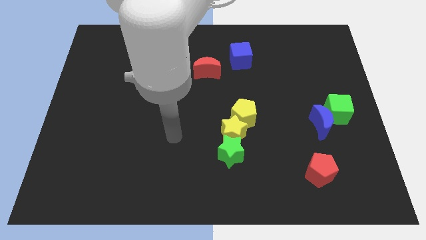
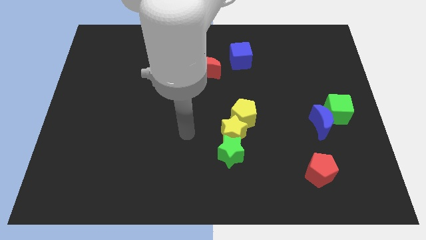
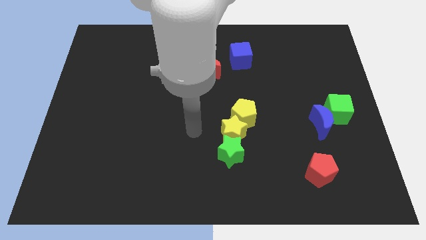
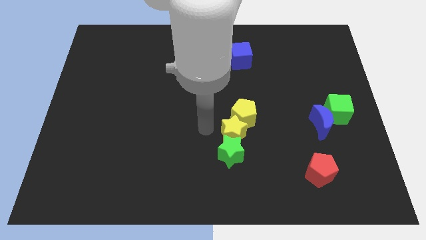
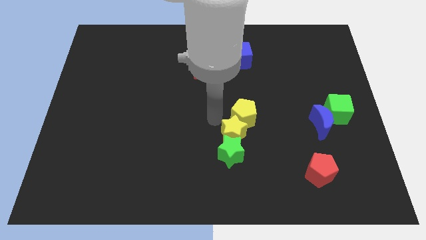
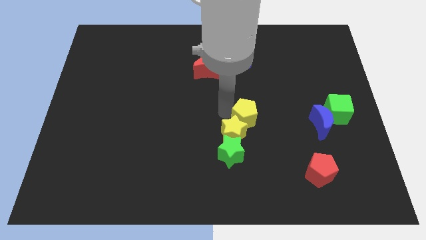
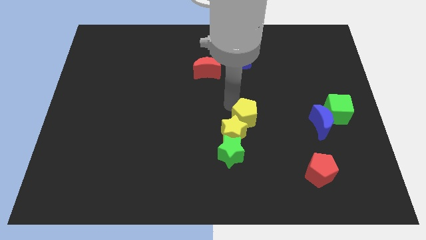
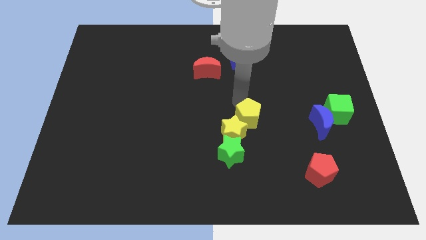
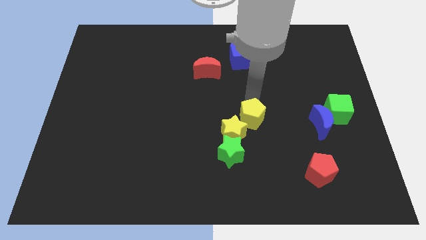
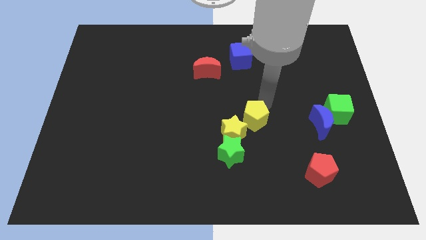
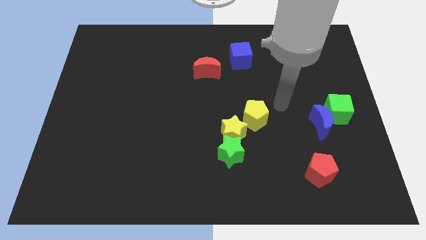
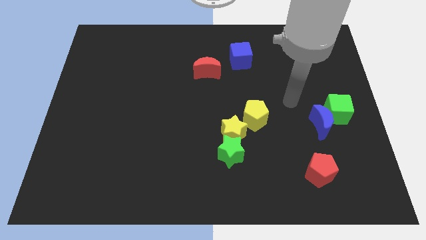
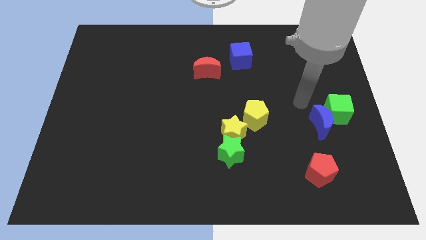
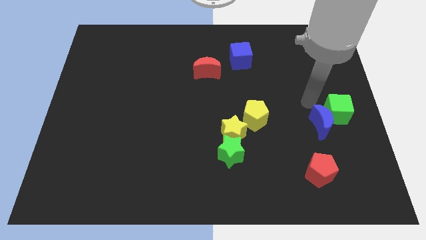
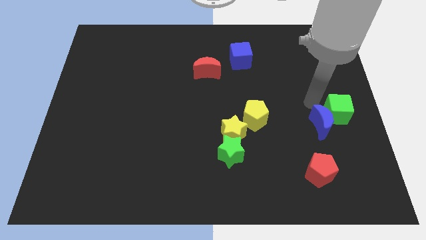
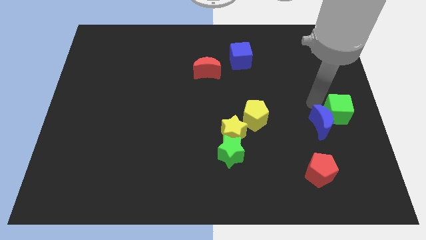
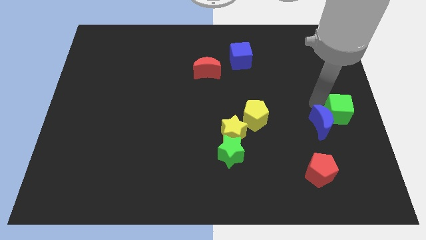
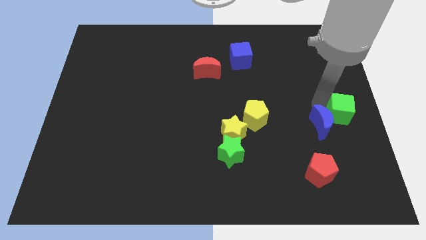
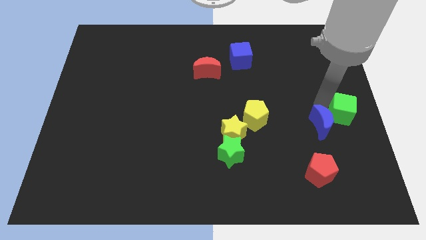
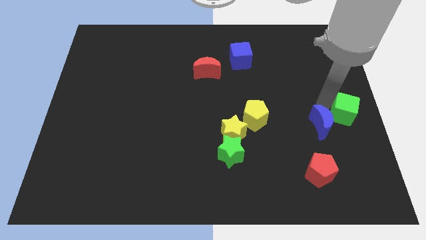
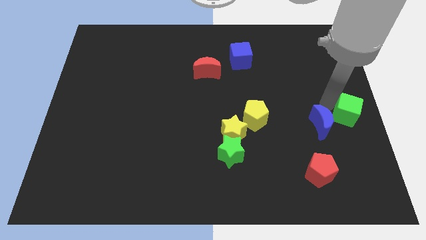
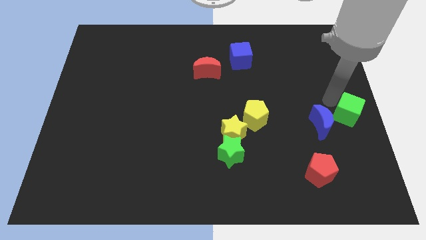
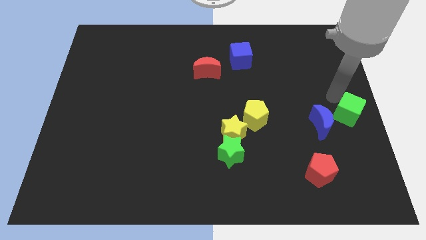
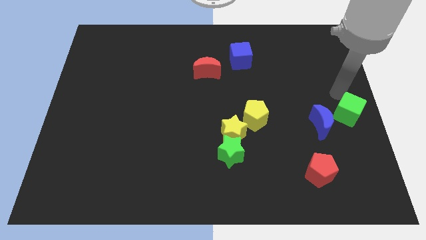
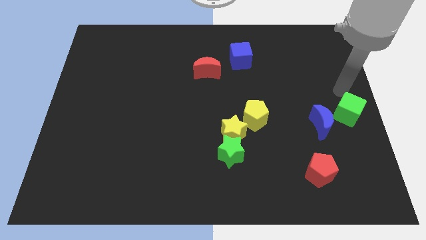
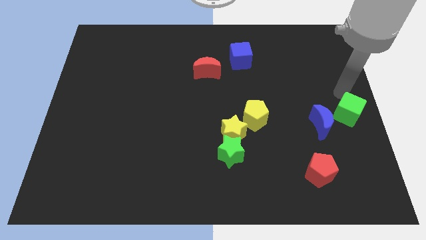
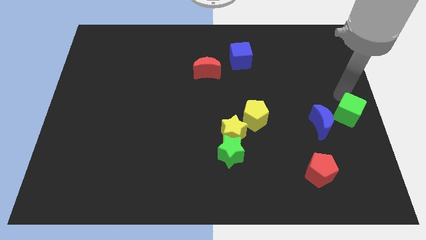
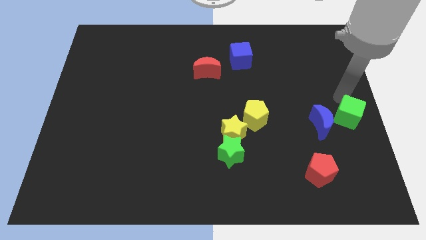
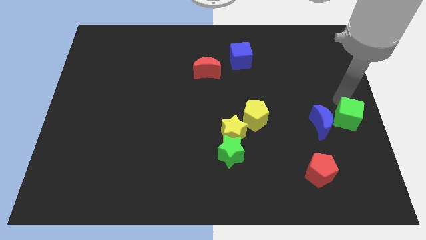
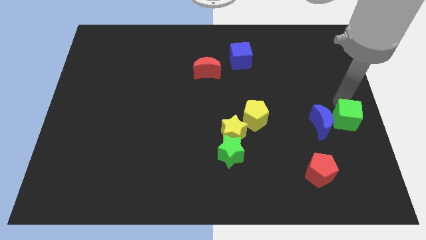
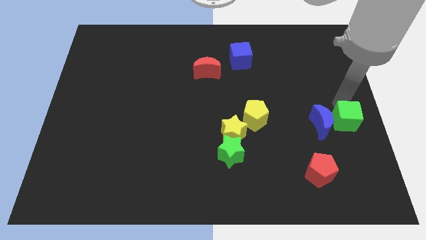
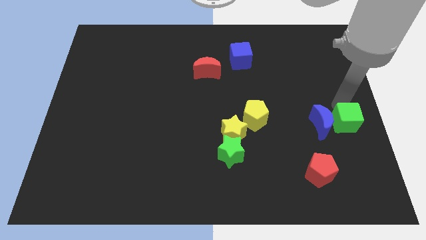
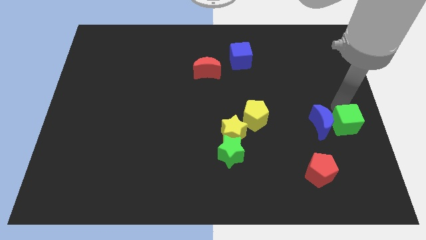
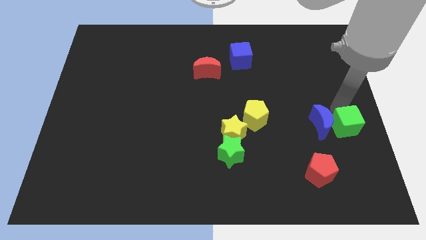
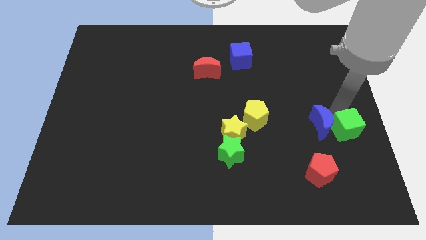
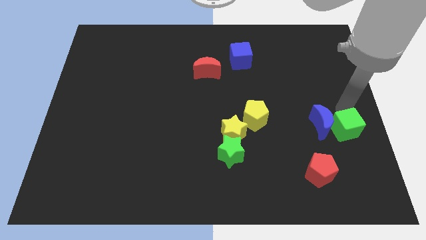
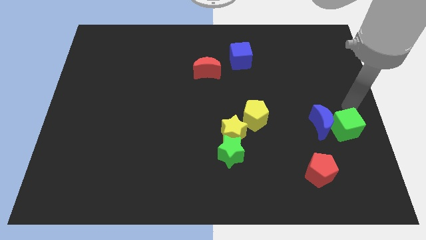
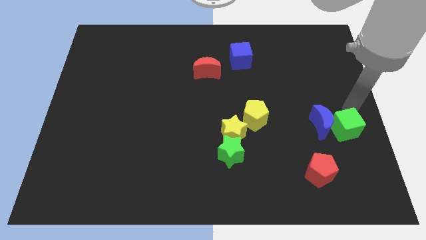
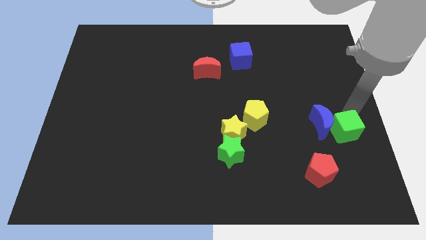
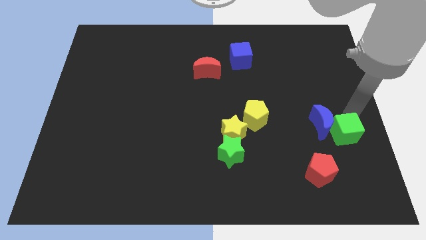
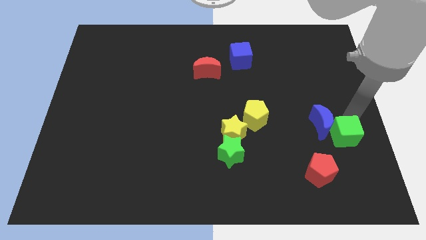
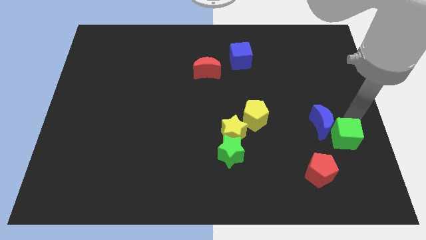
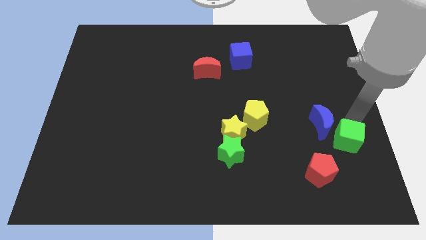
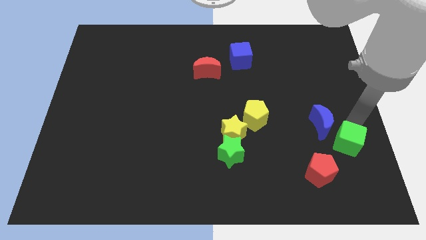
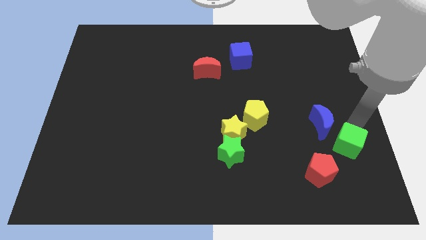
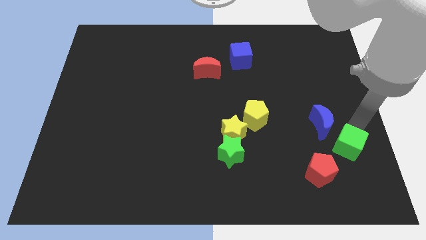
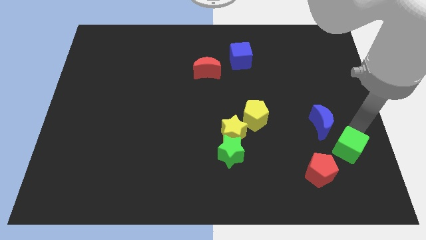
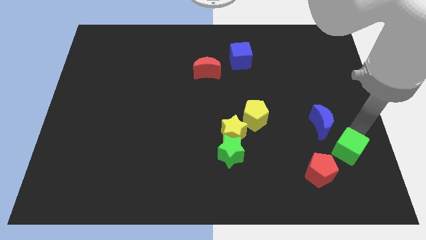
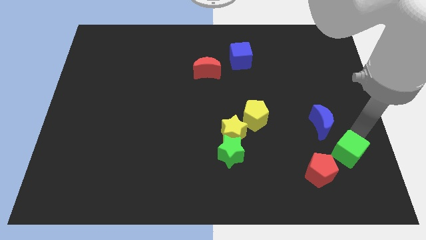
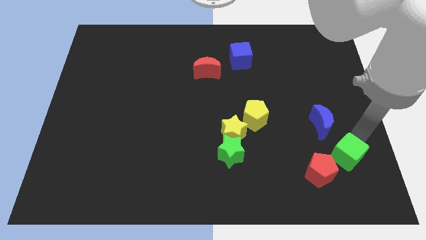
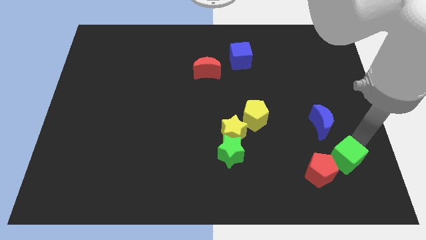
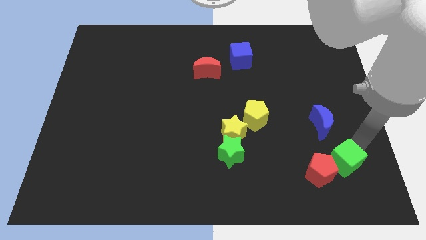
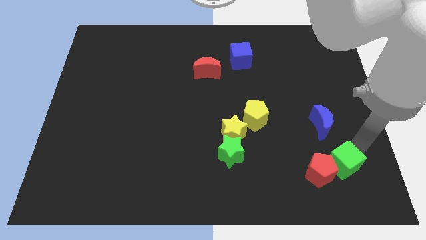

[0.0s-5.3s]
slide the green cube close to the red pentagon

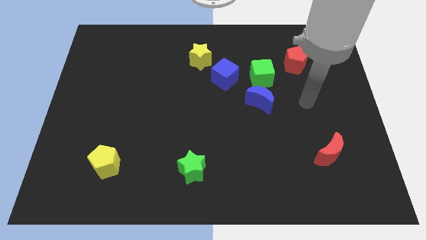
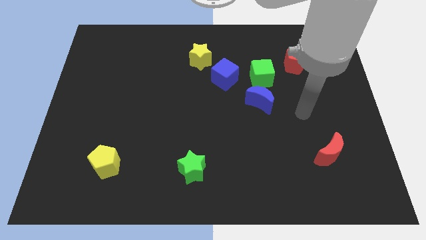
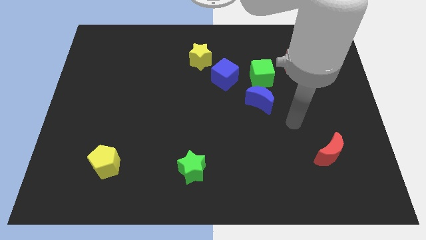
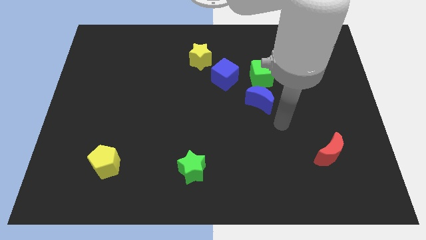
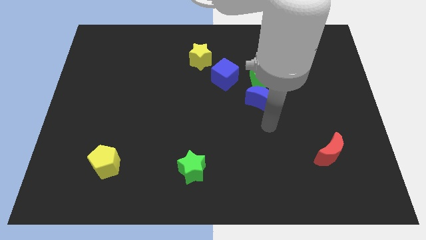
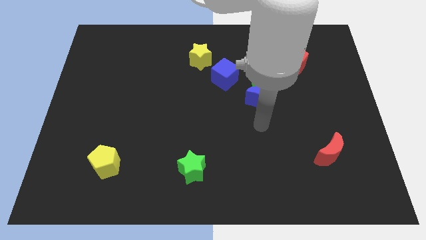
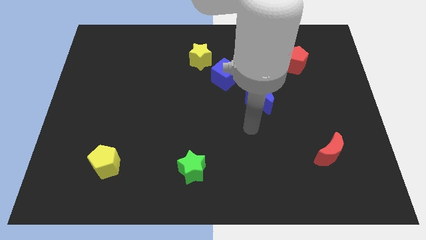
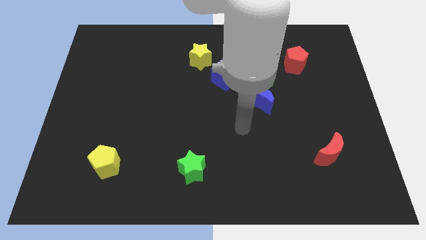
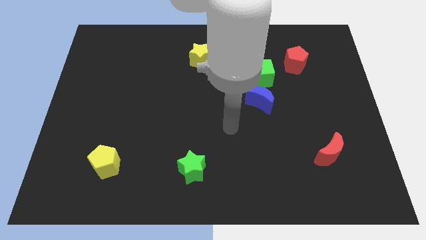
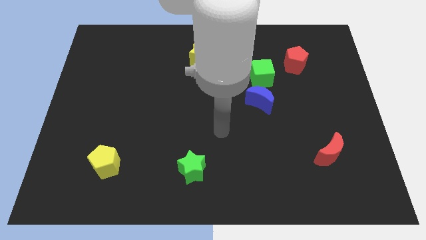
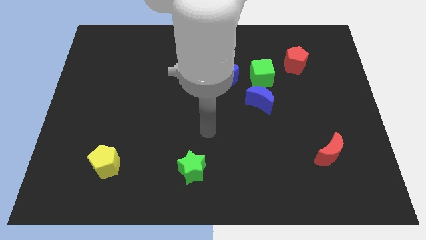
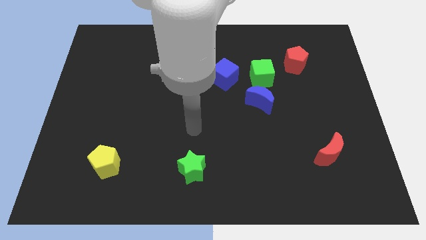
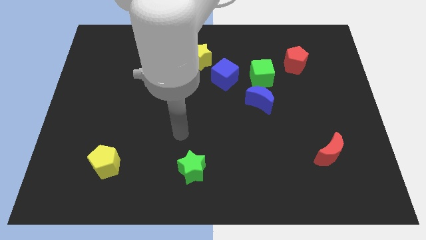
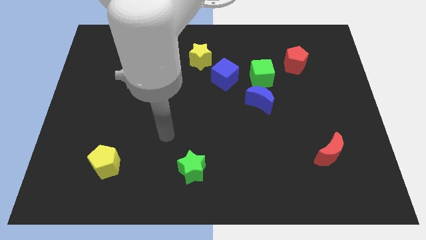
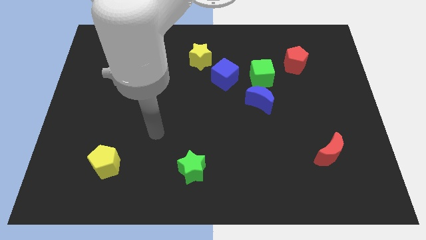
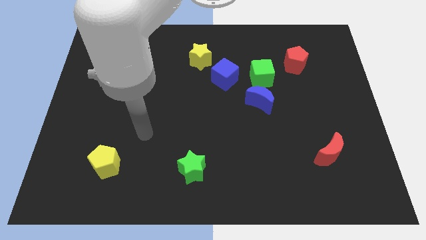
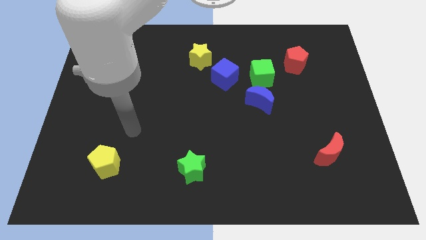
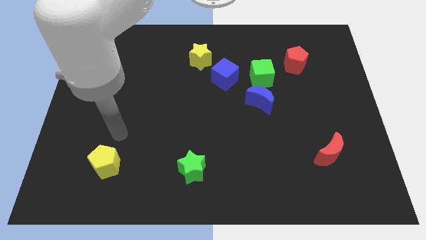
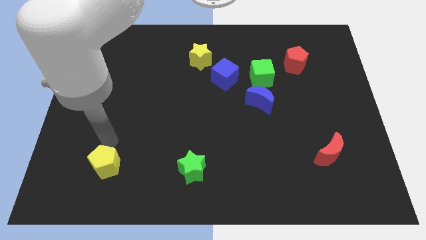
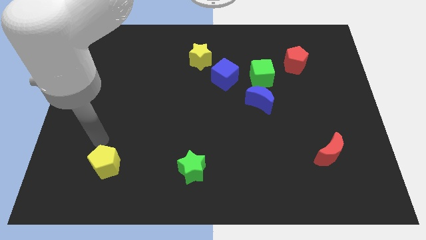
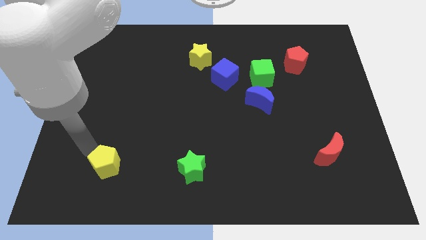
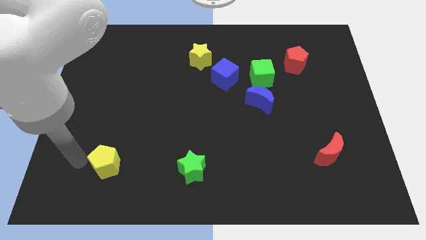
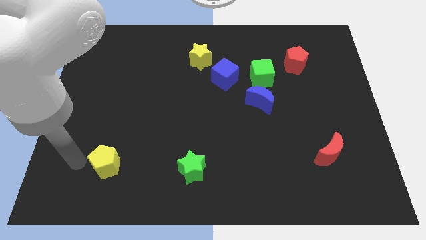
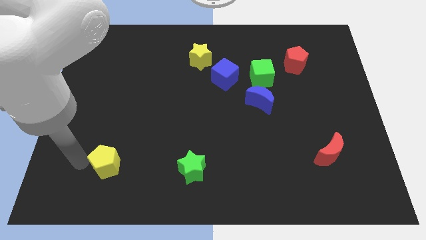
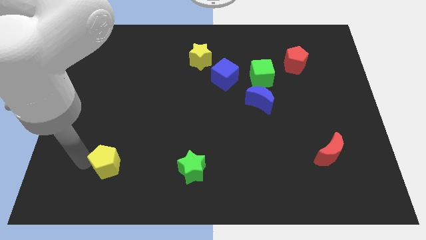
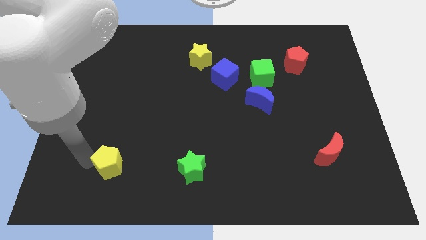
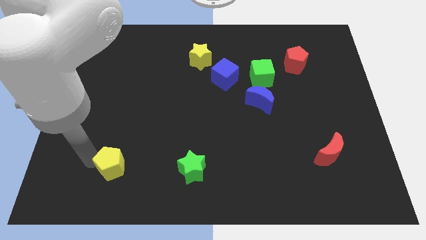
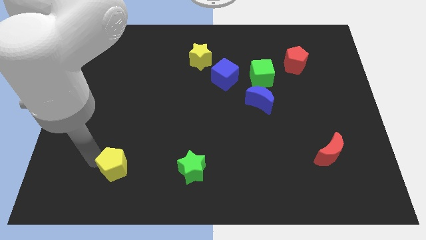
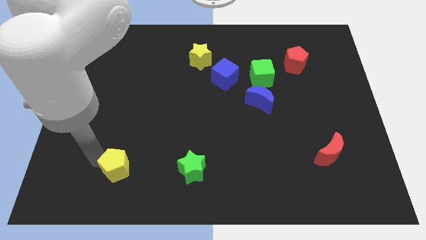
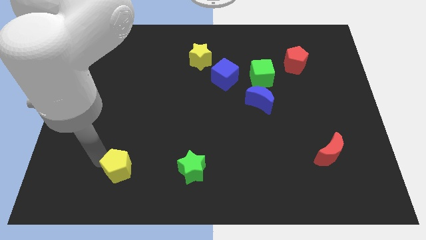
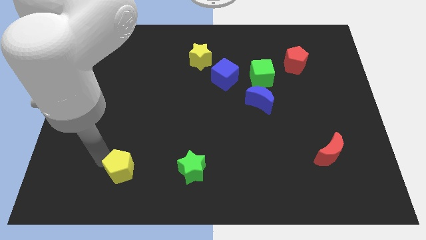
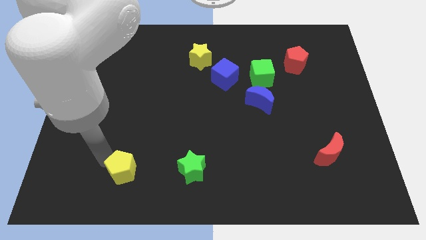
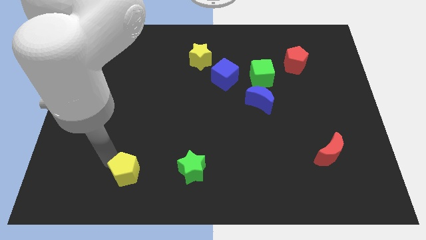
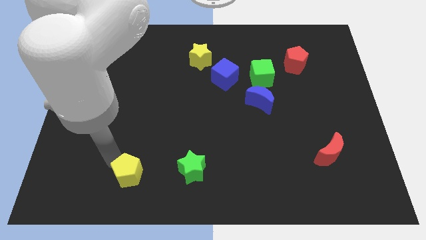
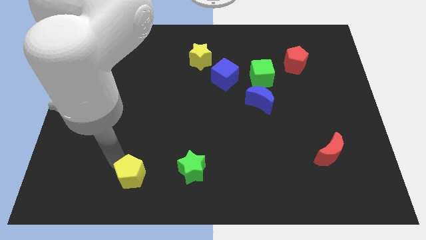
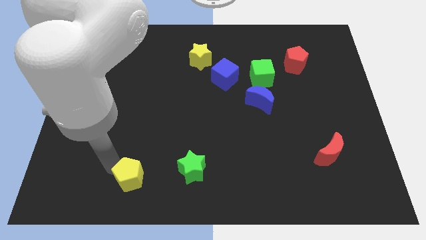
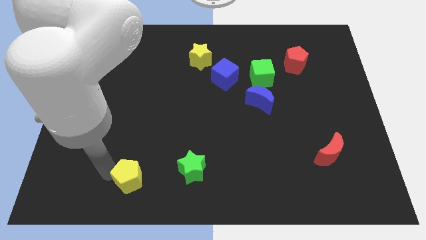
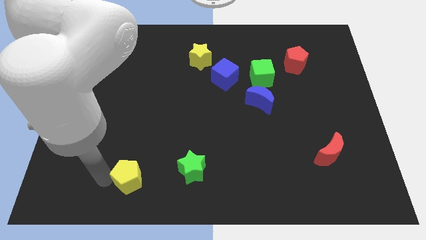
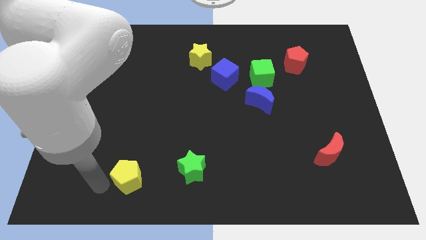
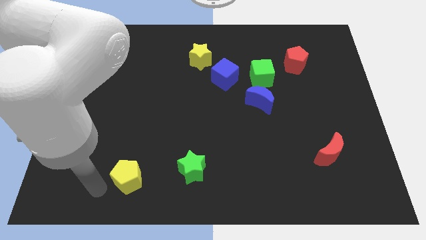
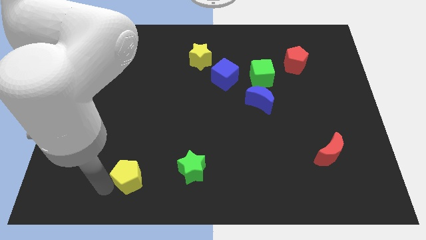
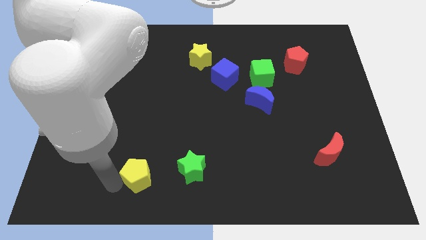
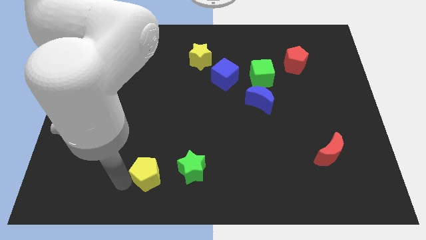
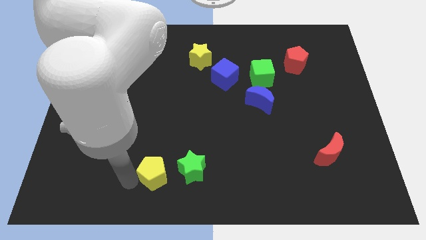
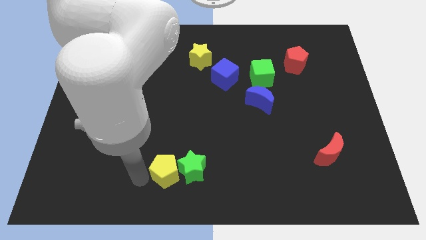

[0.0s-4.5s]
push the yellow pentagon next to the green star
